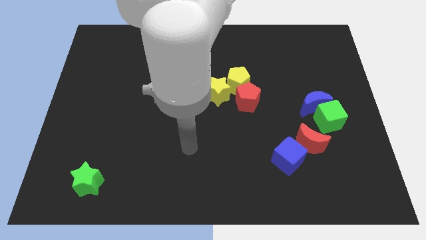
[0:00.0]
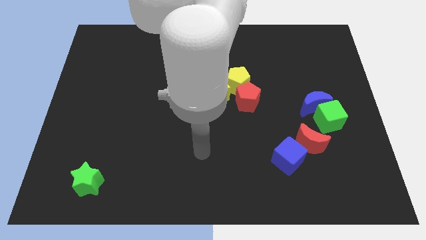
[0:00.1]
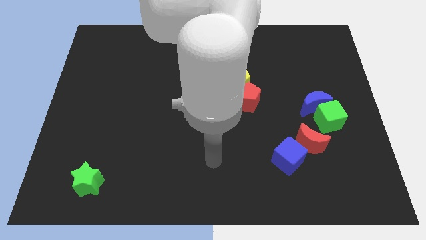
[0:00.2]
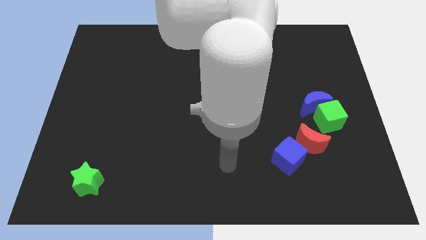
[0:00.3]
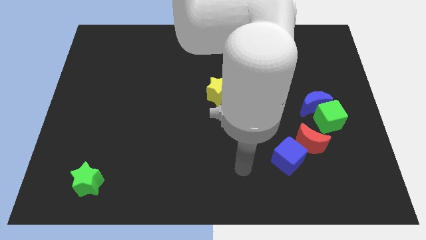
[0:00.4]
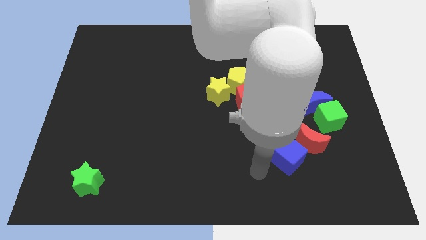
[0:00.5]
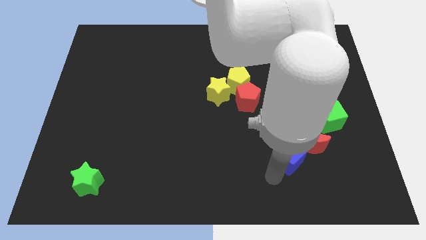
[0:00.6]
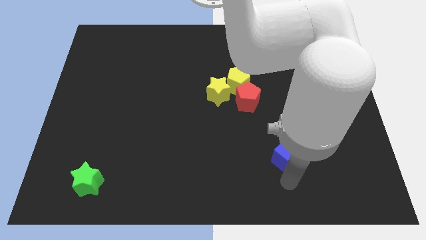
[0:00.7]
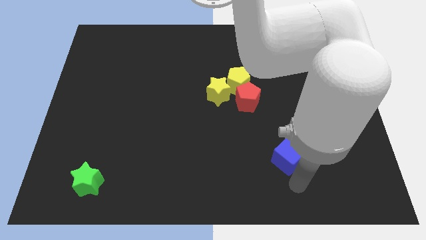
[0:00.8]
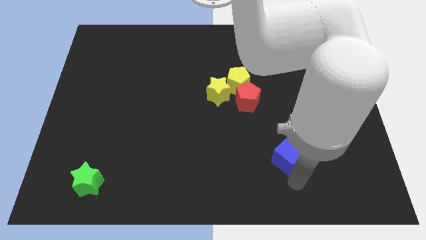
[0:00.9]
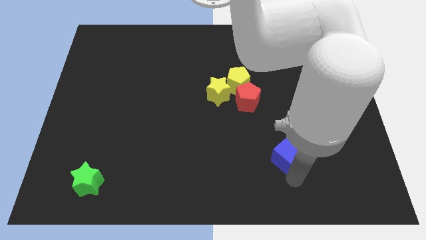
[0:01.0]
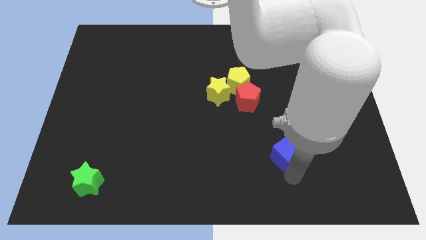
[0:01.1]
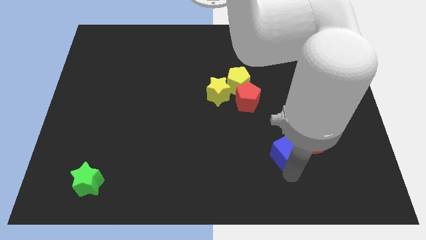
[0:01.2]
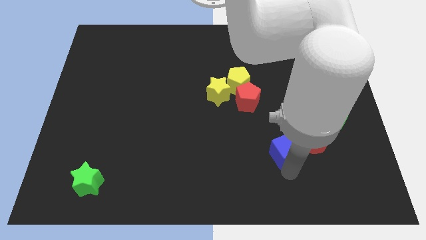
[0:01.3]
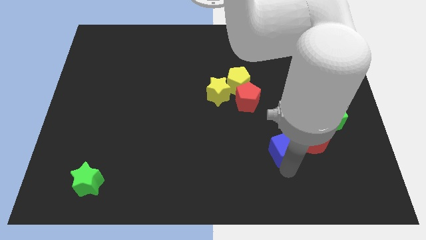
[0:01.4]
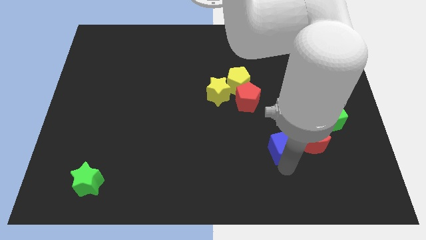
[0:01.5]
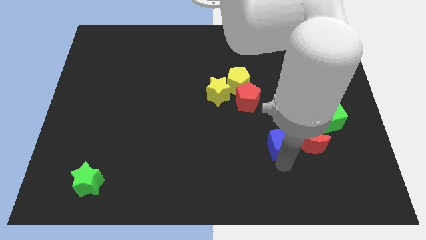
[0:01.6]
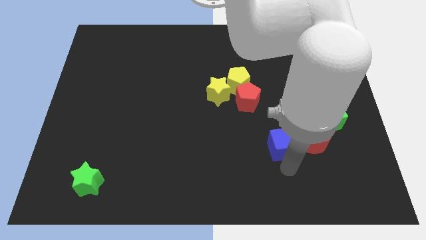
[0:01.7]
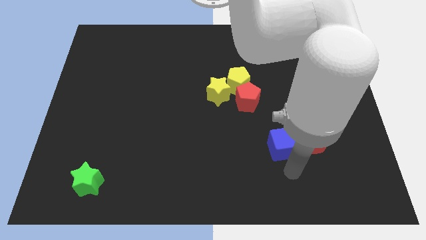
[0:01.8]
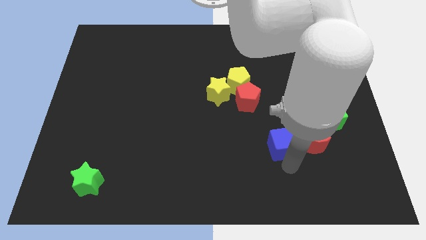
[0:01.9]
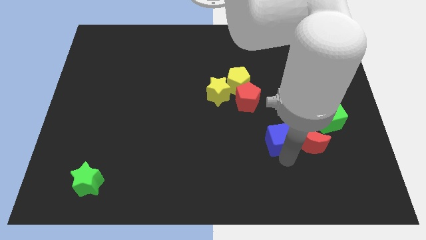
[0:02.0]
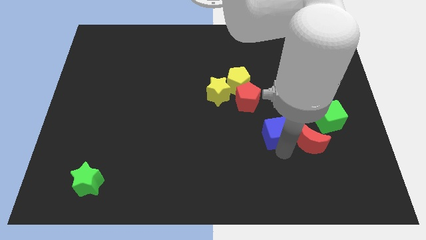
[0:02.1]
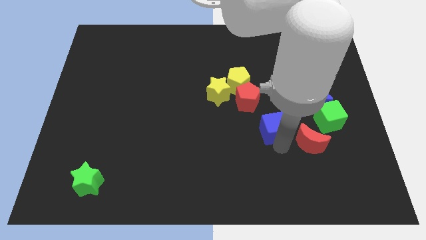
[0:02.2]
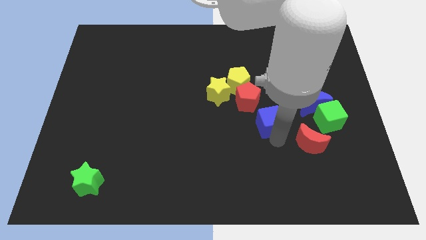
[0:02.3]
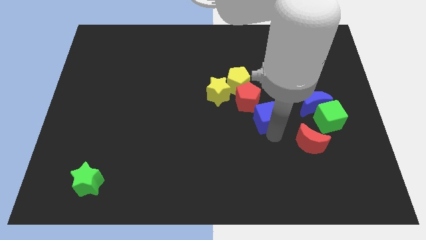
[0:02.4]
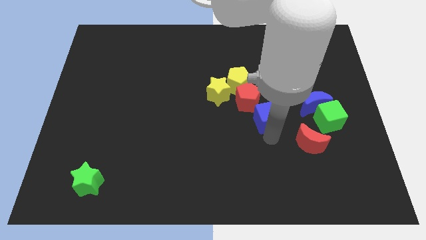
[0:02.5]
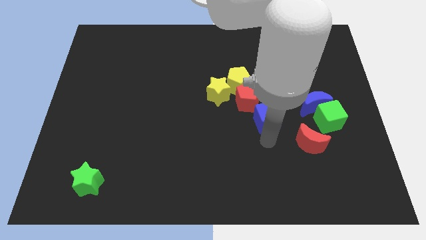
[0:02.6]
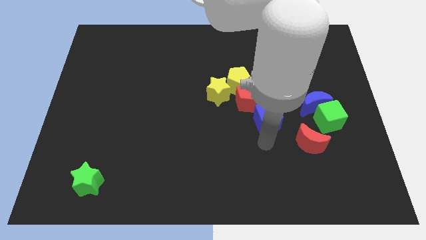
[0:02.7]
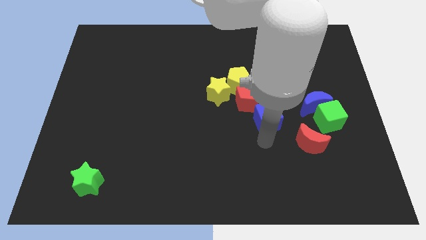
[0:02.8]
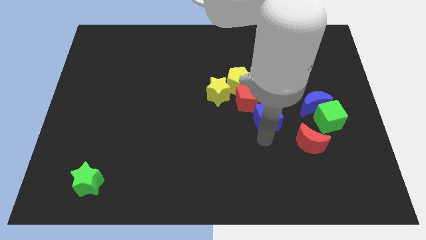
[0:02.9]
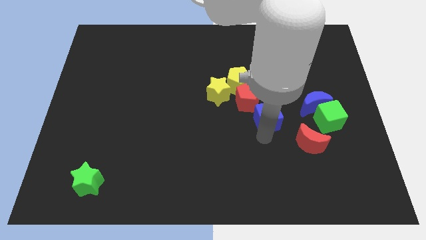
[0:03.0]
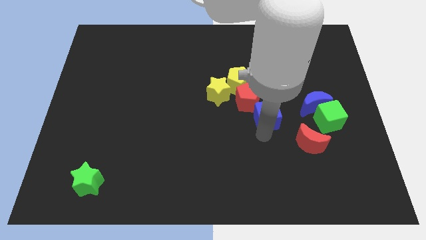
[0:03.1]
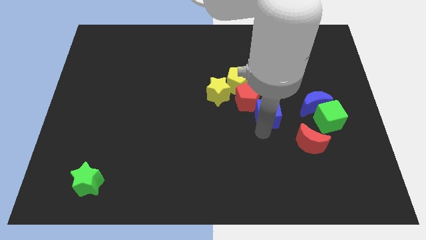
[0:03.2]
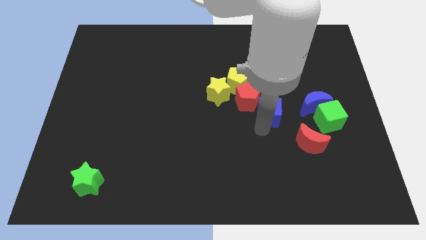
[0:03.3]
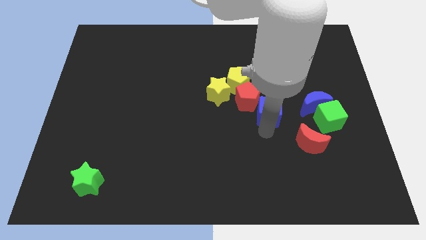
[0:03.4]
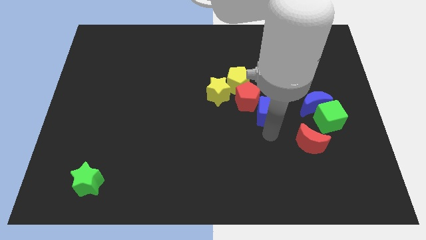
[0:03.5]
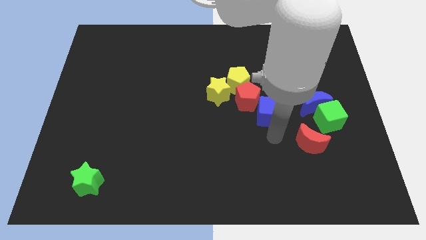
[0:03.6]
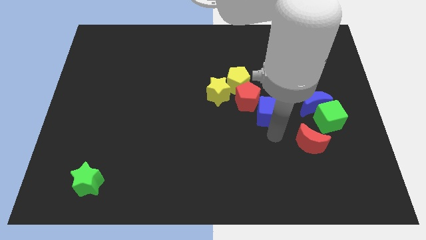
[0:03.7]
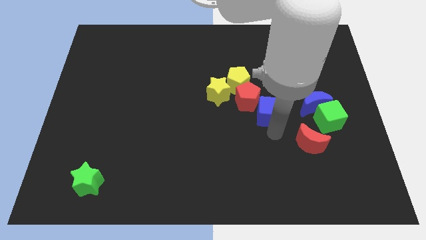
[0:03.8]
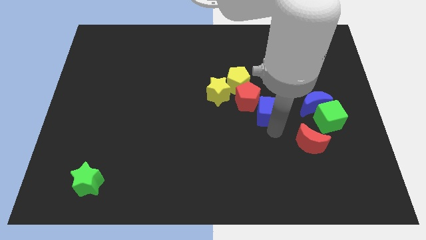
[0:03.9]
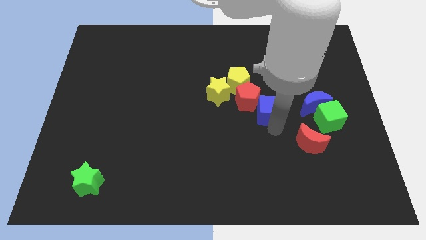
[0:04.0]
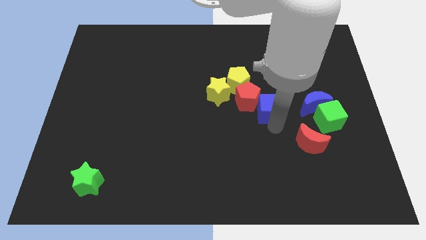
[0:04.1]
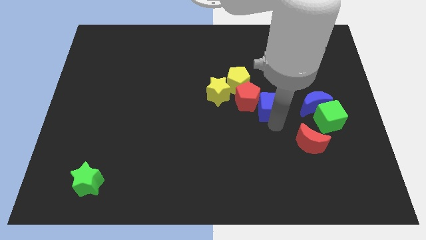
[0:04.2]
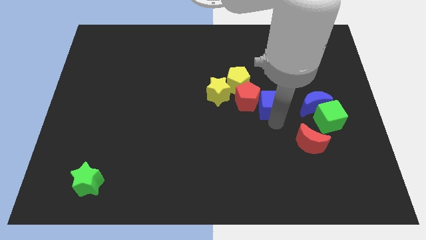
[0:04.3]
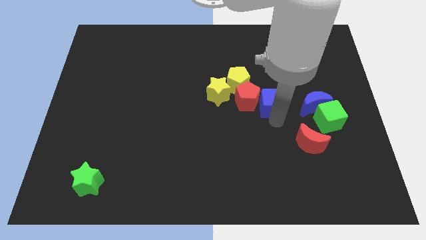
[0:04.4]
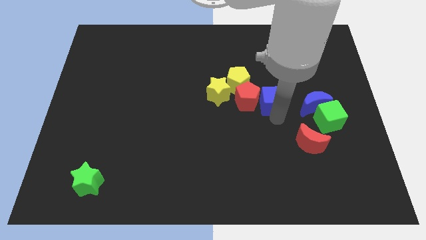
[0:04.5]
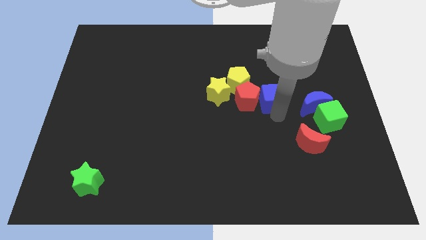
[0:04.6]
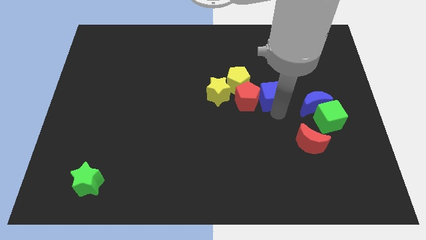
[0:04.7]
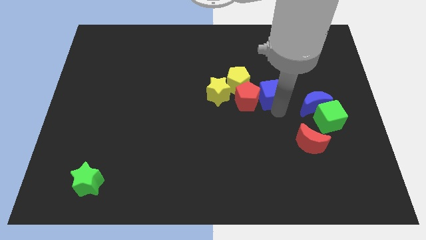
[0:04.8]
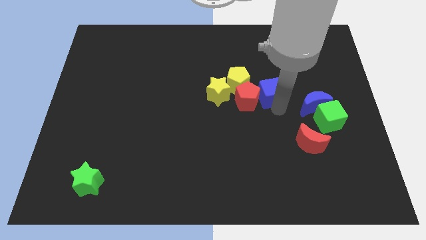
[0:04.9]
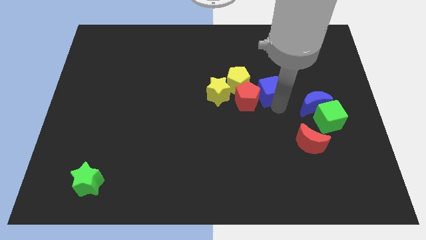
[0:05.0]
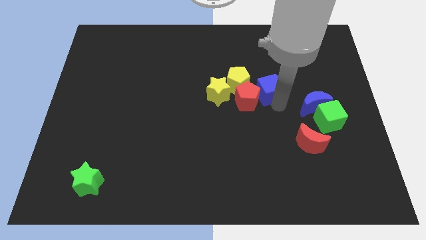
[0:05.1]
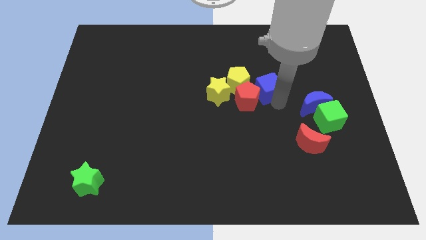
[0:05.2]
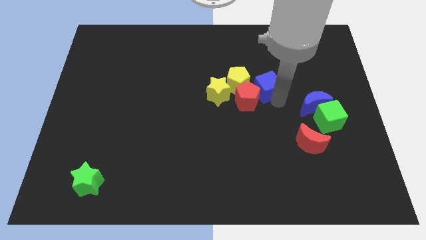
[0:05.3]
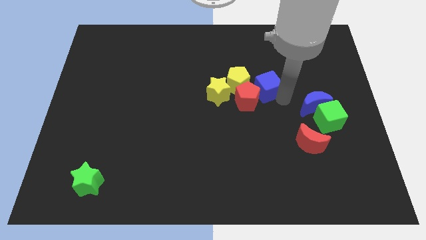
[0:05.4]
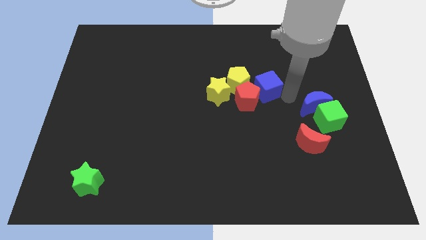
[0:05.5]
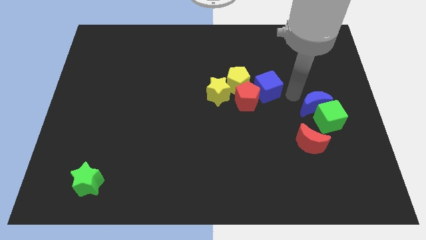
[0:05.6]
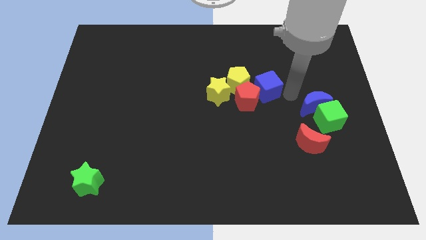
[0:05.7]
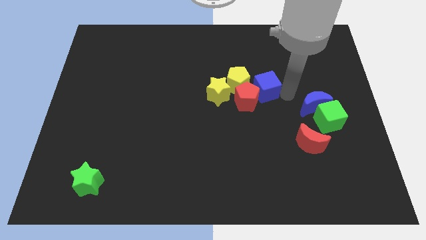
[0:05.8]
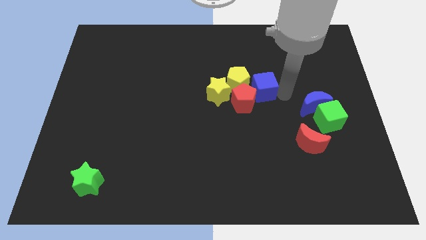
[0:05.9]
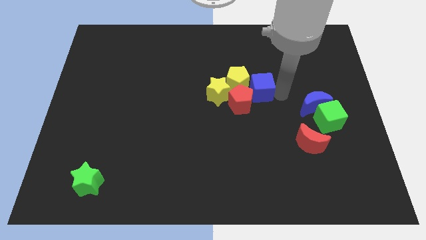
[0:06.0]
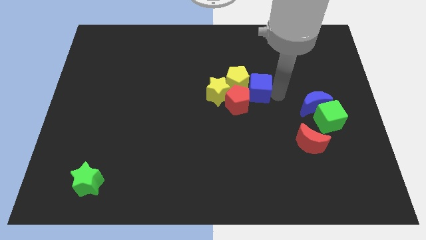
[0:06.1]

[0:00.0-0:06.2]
push the blue cube to the yellow pentagon

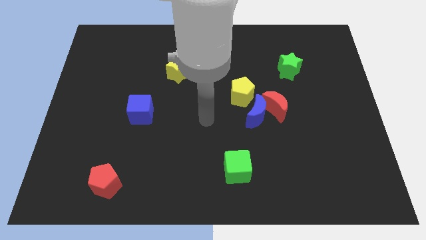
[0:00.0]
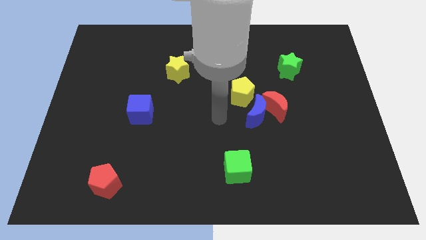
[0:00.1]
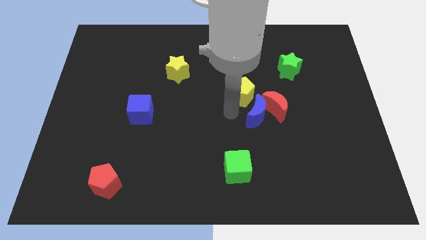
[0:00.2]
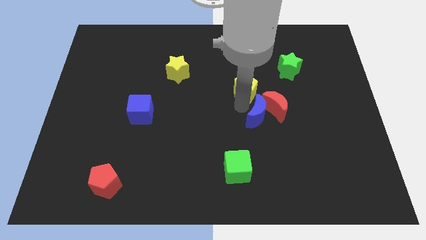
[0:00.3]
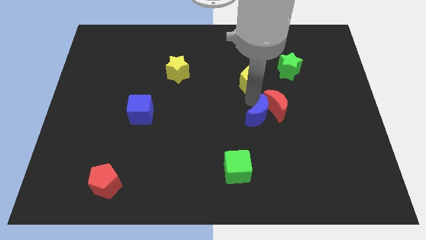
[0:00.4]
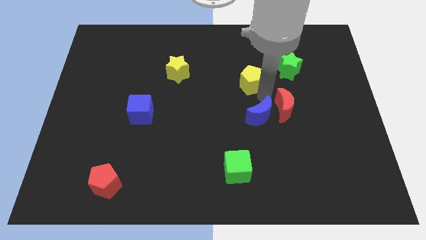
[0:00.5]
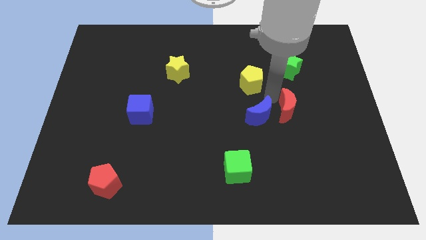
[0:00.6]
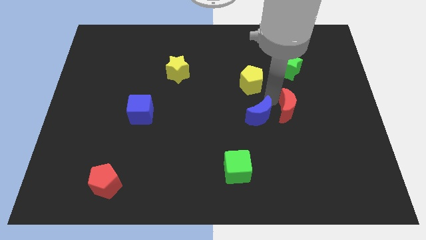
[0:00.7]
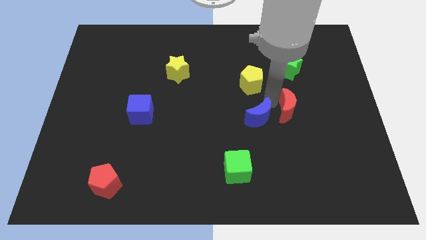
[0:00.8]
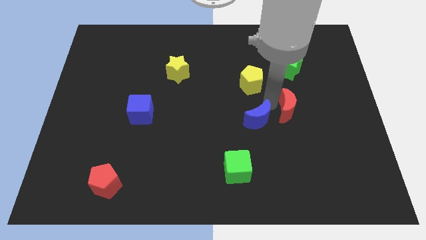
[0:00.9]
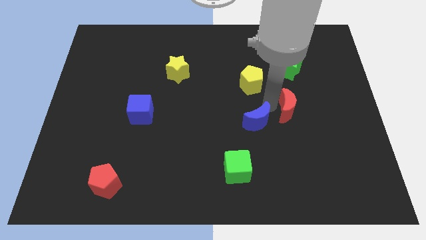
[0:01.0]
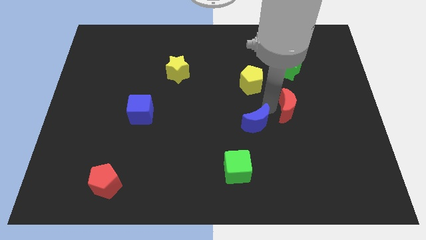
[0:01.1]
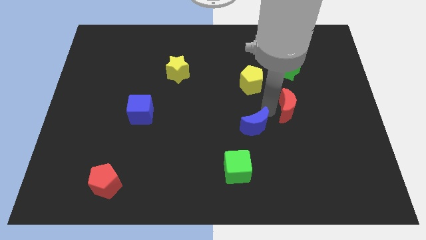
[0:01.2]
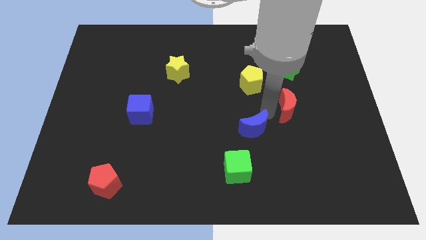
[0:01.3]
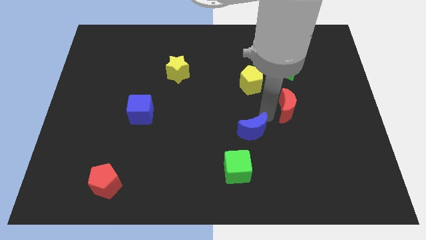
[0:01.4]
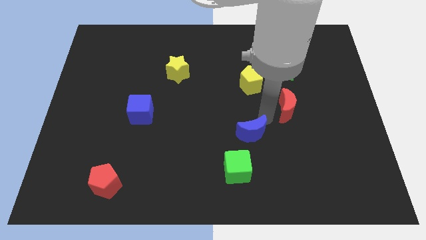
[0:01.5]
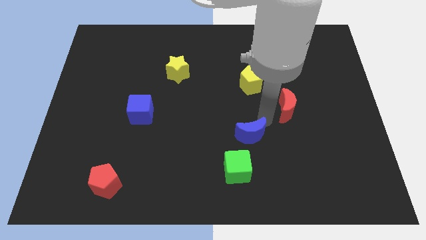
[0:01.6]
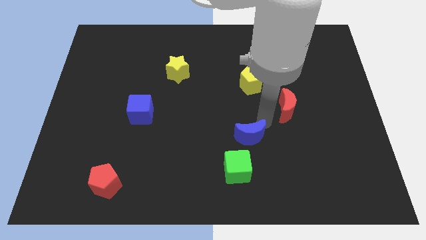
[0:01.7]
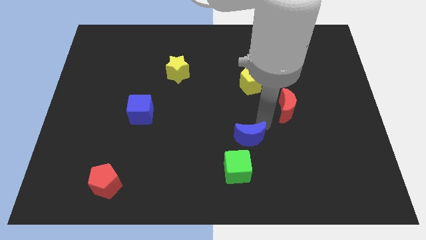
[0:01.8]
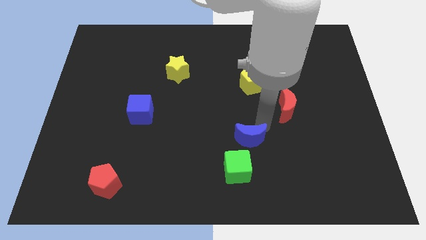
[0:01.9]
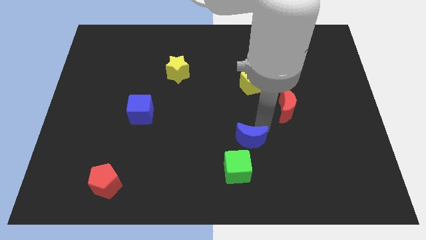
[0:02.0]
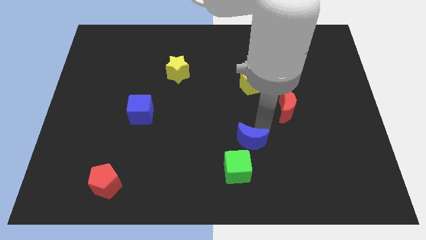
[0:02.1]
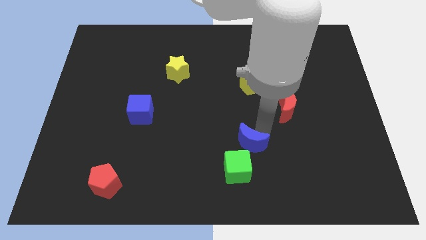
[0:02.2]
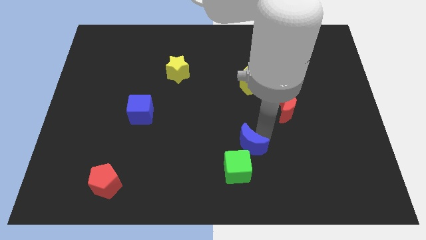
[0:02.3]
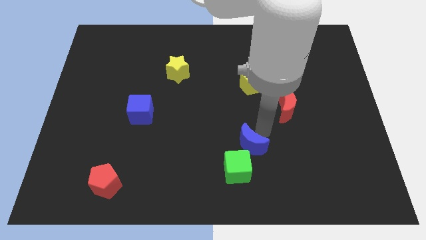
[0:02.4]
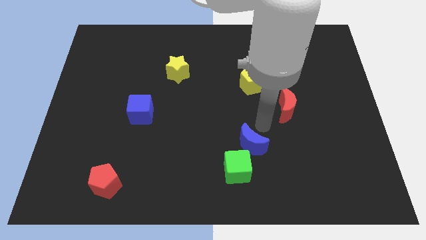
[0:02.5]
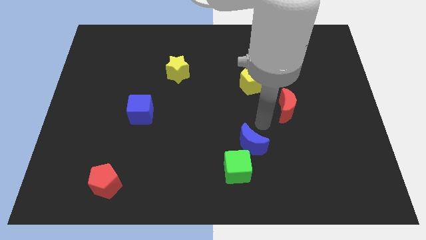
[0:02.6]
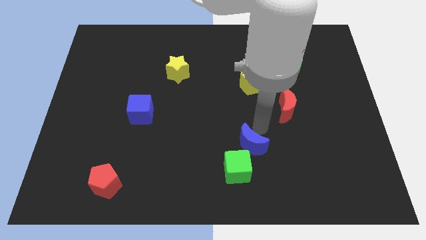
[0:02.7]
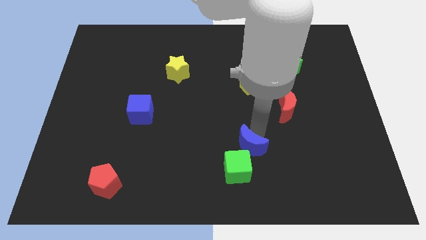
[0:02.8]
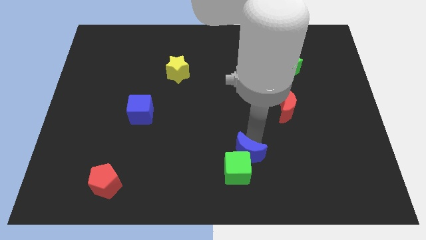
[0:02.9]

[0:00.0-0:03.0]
push the blue moon to the green cube
